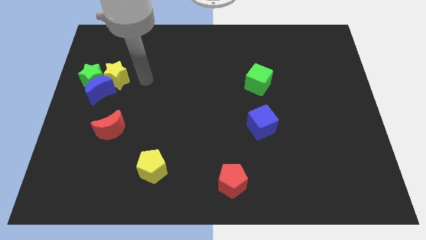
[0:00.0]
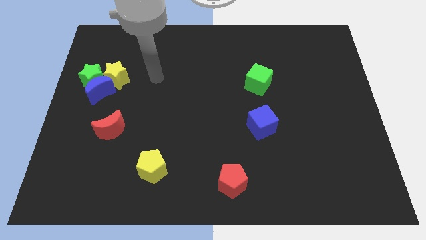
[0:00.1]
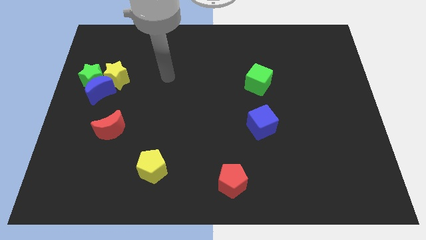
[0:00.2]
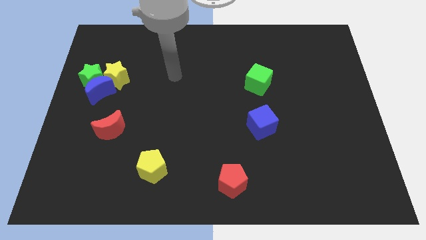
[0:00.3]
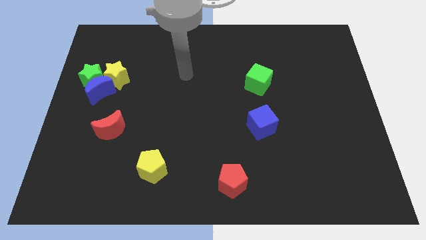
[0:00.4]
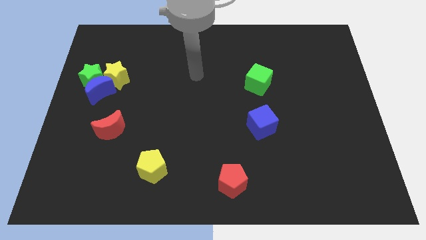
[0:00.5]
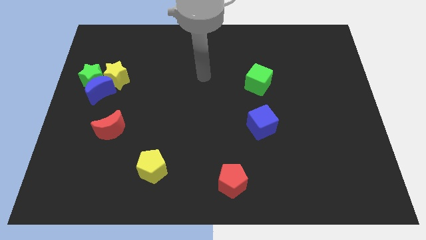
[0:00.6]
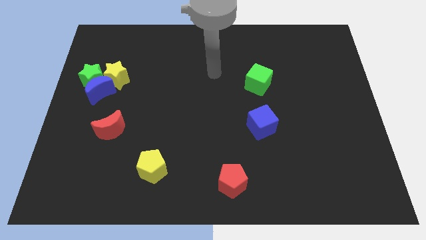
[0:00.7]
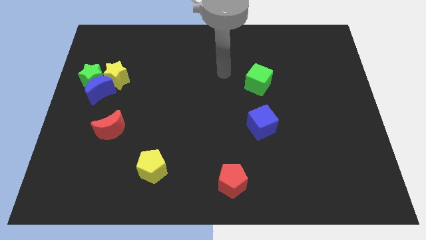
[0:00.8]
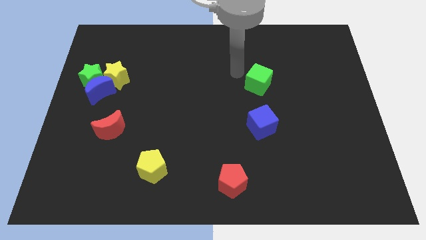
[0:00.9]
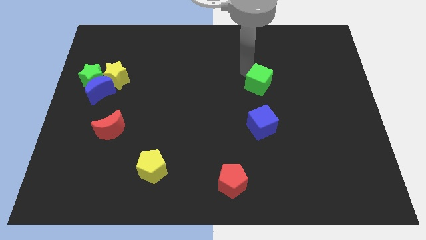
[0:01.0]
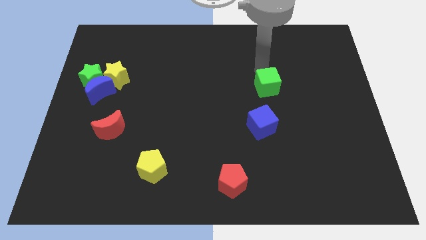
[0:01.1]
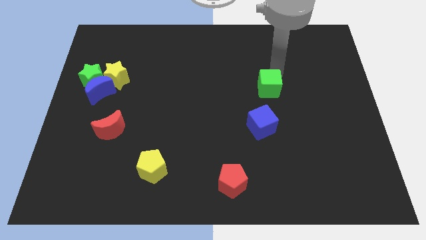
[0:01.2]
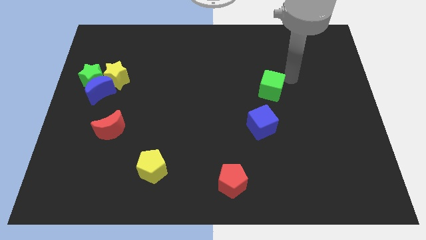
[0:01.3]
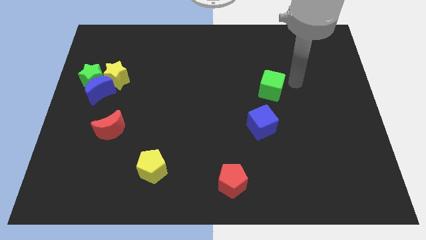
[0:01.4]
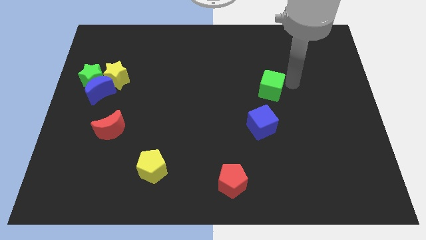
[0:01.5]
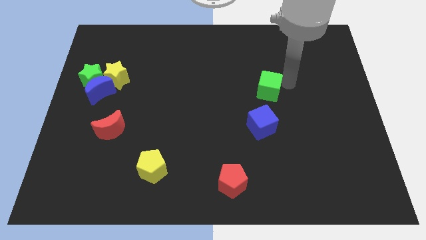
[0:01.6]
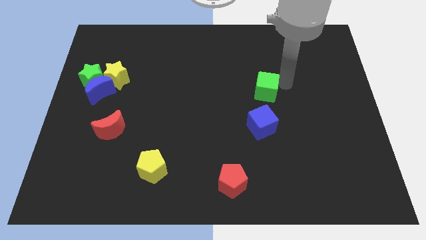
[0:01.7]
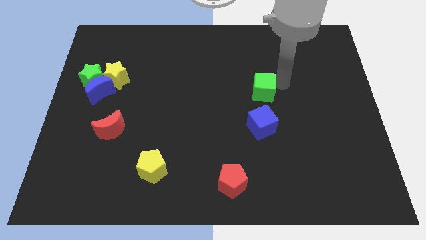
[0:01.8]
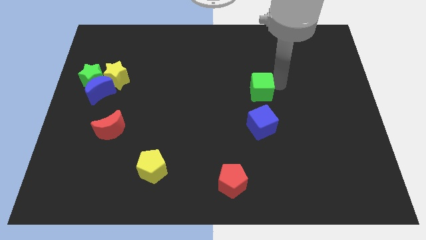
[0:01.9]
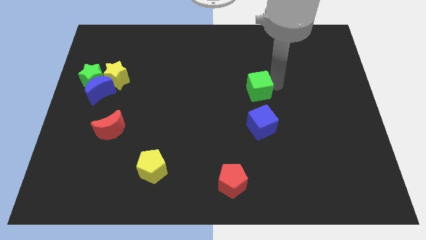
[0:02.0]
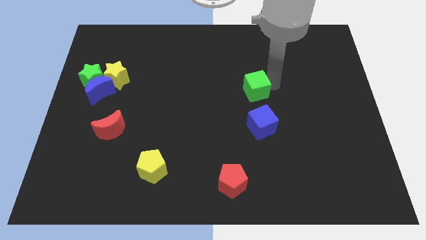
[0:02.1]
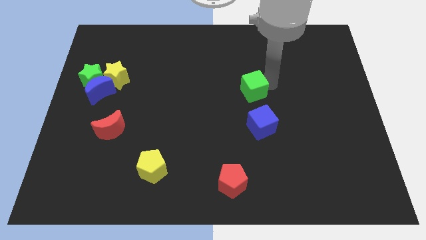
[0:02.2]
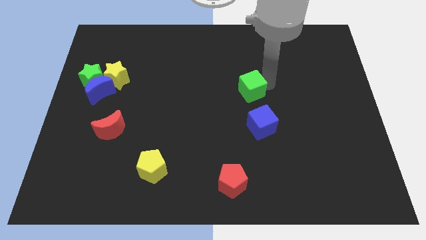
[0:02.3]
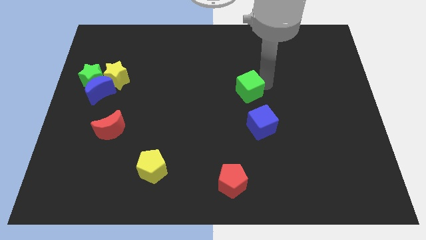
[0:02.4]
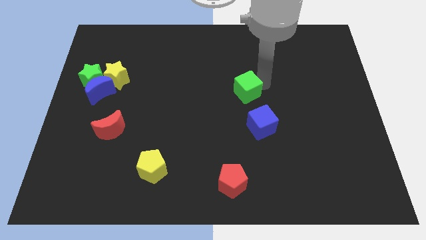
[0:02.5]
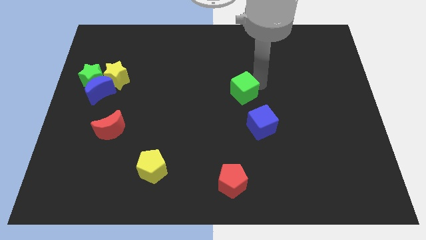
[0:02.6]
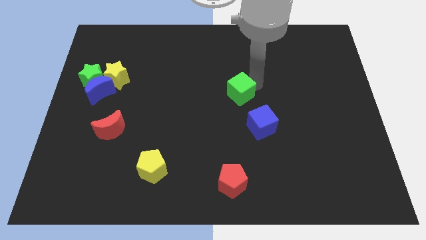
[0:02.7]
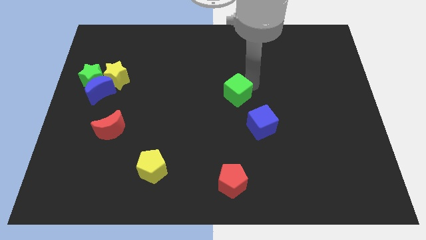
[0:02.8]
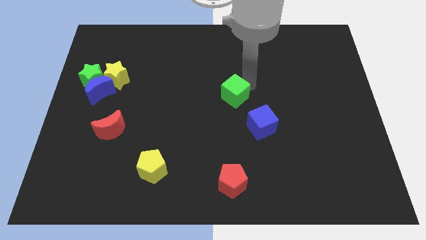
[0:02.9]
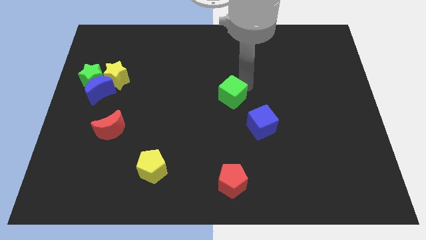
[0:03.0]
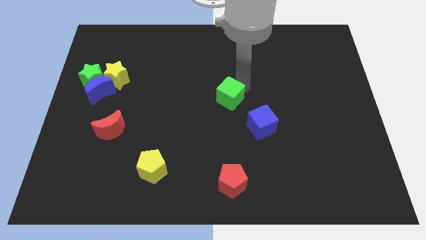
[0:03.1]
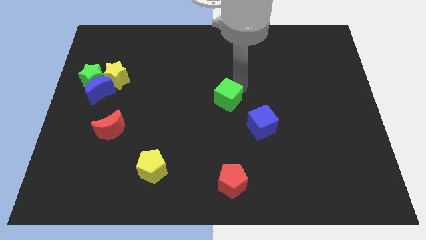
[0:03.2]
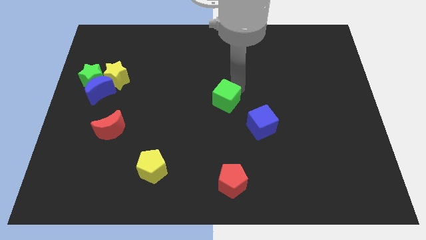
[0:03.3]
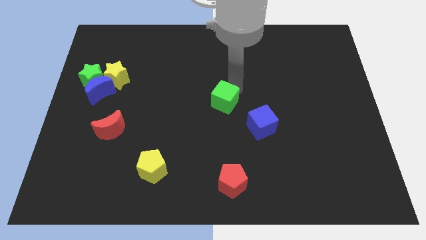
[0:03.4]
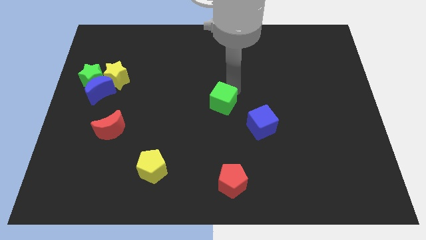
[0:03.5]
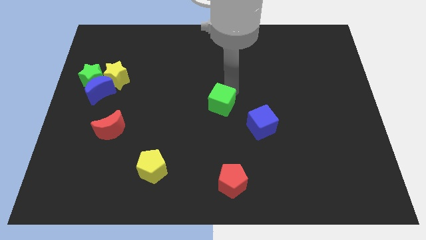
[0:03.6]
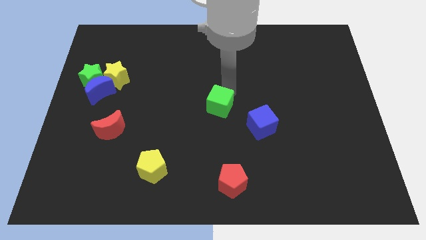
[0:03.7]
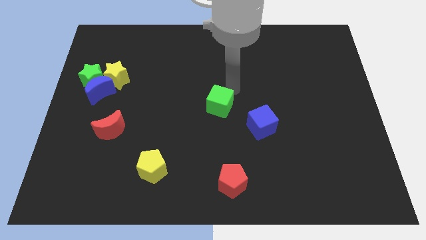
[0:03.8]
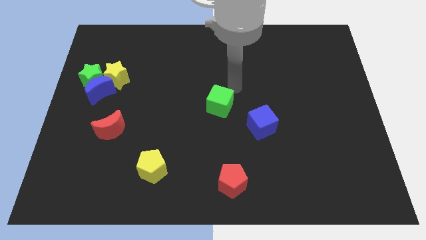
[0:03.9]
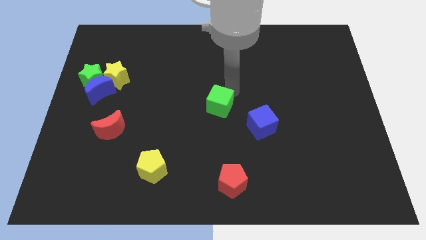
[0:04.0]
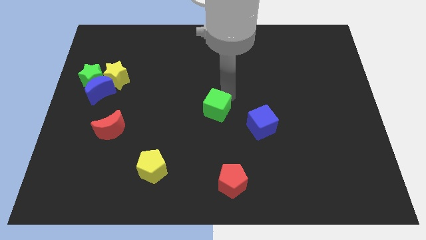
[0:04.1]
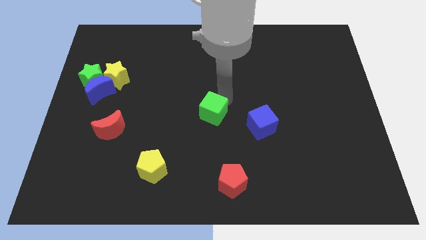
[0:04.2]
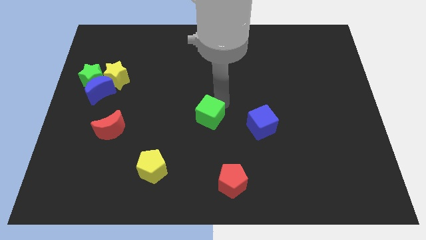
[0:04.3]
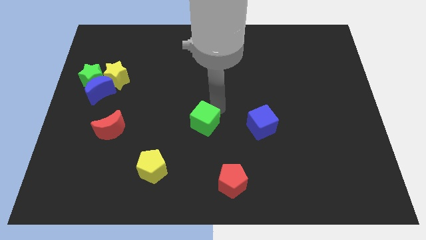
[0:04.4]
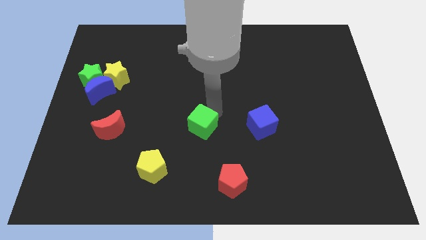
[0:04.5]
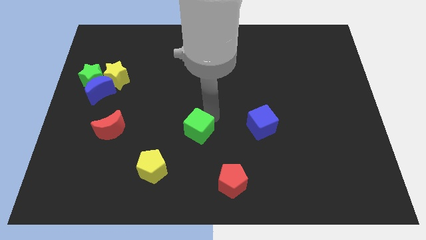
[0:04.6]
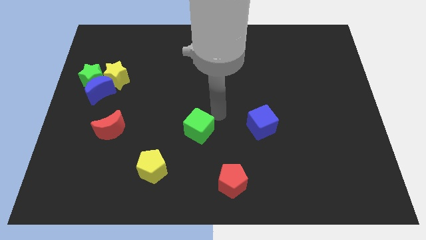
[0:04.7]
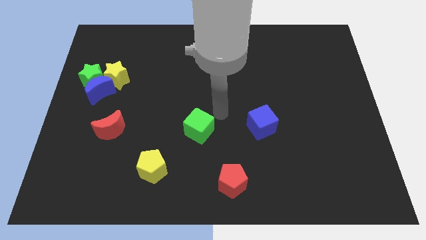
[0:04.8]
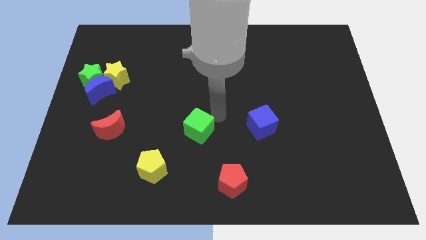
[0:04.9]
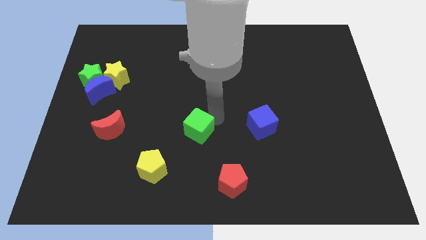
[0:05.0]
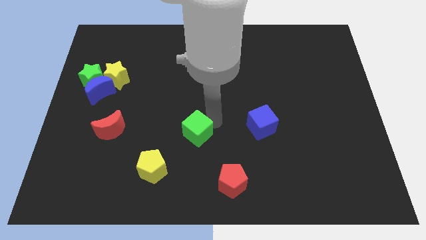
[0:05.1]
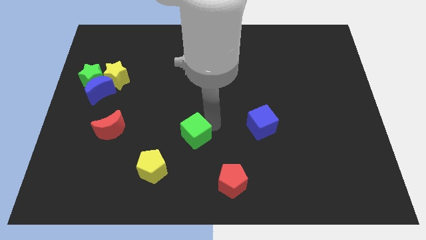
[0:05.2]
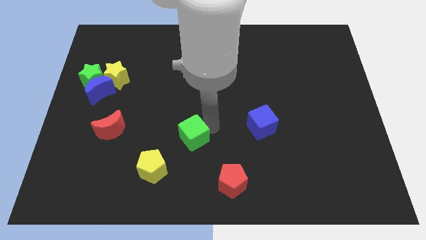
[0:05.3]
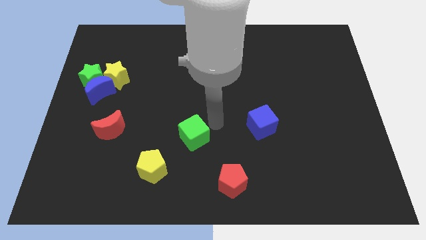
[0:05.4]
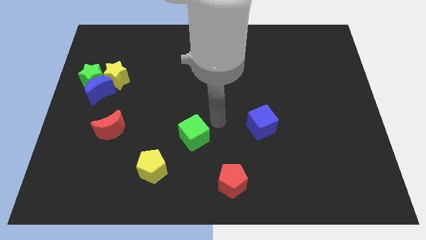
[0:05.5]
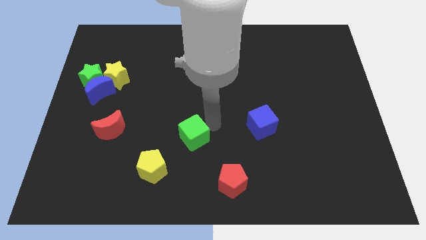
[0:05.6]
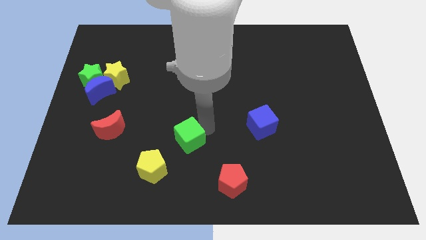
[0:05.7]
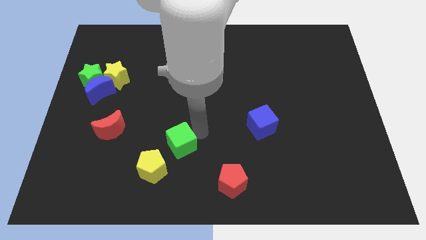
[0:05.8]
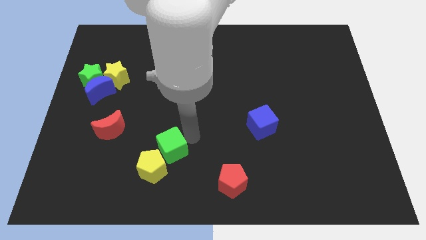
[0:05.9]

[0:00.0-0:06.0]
push the green cube towards the yellow pentagon

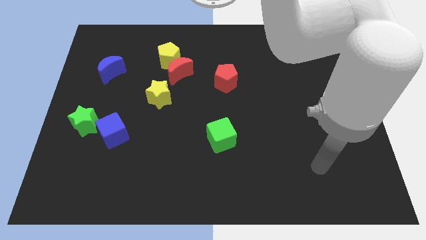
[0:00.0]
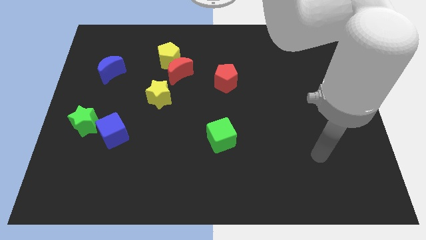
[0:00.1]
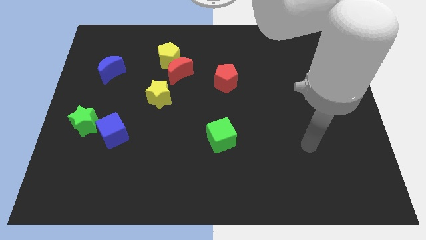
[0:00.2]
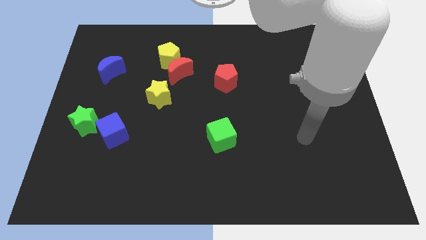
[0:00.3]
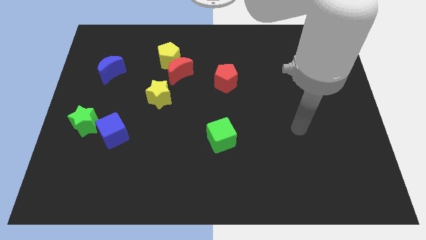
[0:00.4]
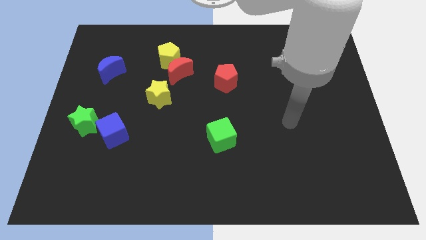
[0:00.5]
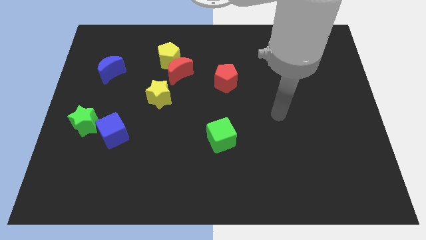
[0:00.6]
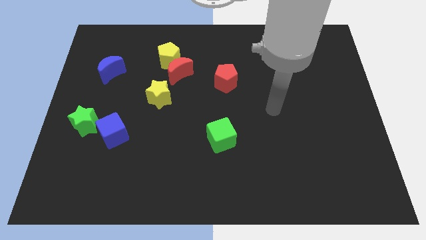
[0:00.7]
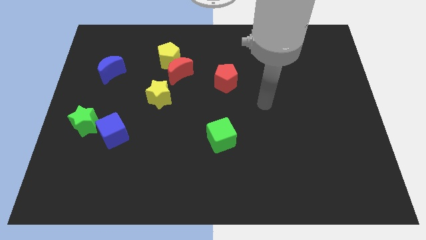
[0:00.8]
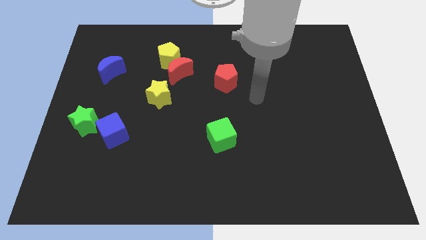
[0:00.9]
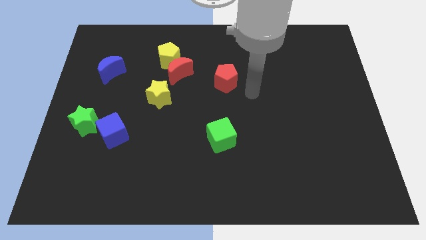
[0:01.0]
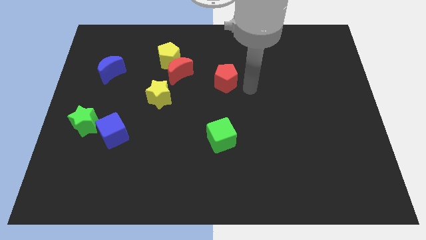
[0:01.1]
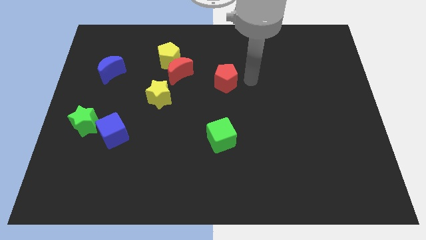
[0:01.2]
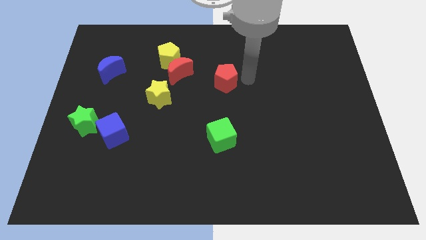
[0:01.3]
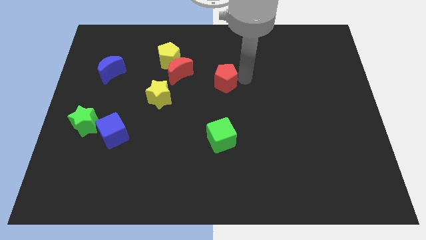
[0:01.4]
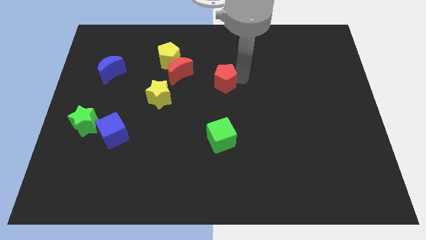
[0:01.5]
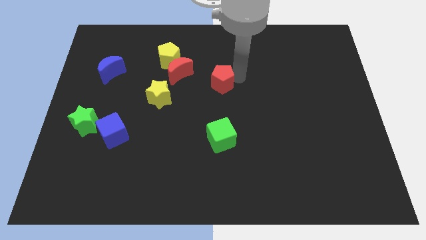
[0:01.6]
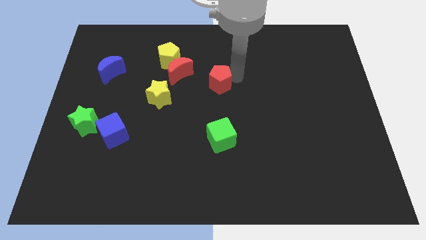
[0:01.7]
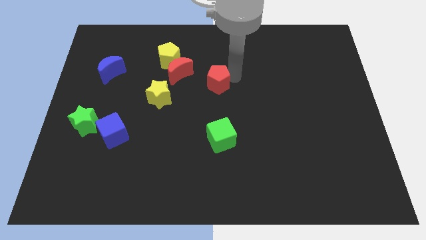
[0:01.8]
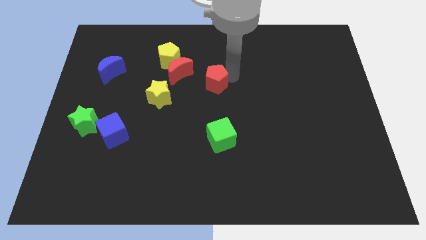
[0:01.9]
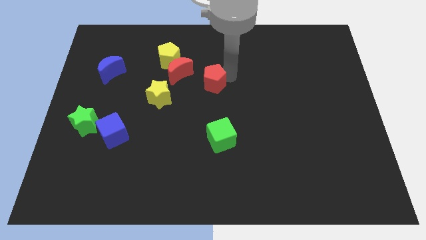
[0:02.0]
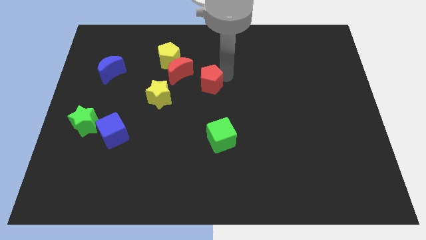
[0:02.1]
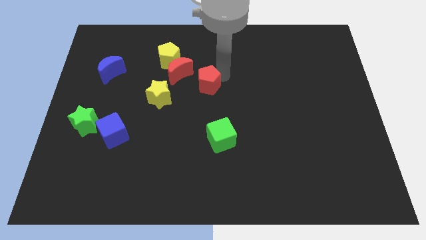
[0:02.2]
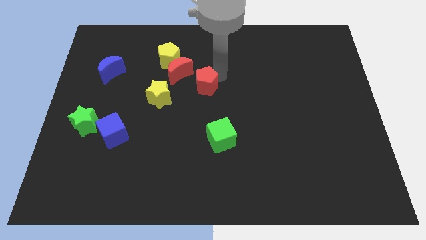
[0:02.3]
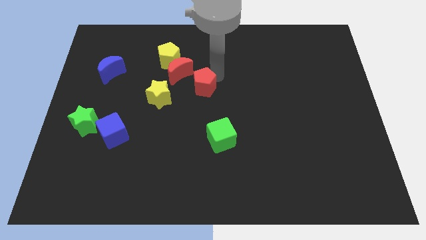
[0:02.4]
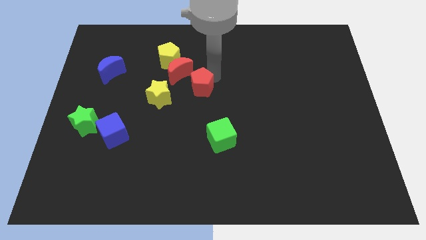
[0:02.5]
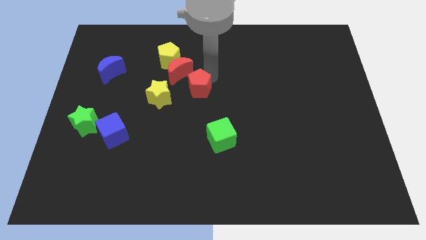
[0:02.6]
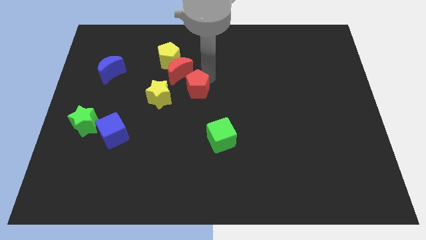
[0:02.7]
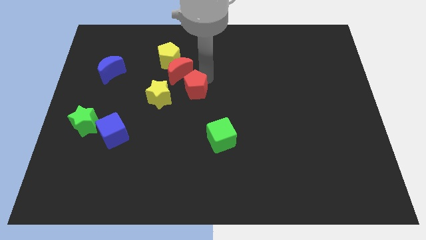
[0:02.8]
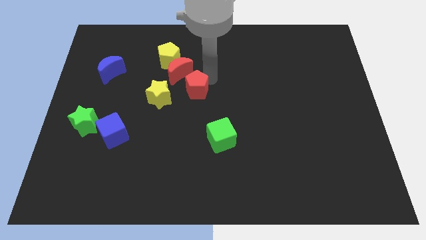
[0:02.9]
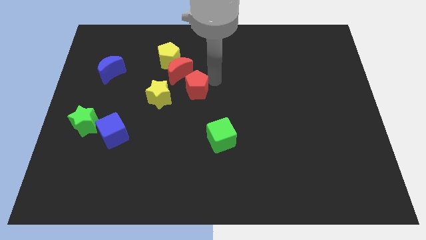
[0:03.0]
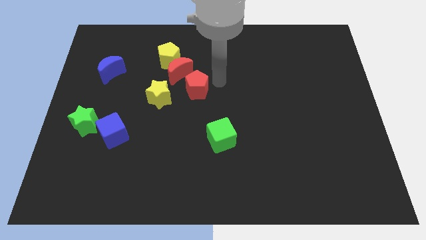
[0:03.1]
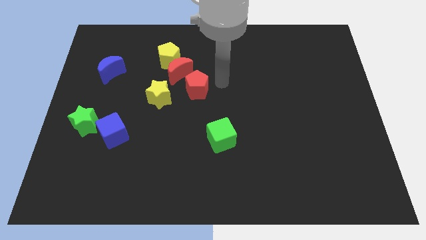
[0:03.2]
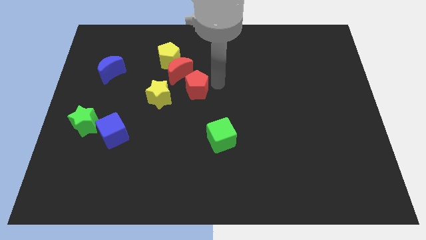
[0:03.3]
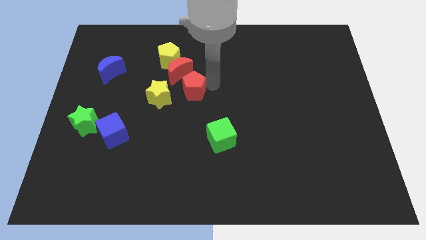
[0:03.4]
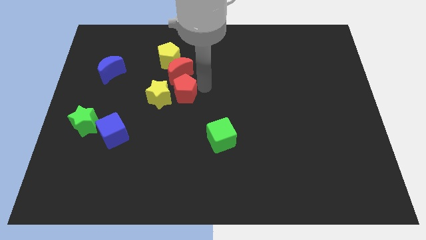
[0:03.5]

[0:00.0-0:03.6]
slide the red pentagon towards the yellow star
